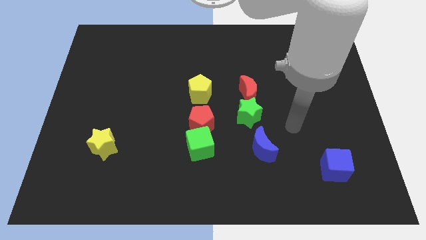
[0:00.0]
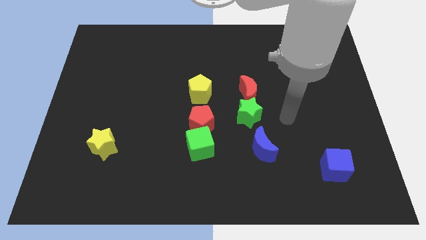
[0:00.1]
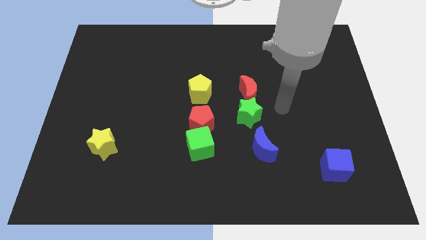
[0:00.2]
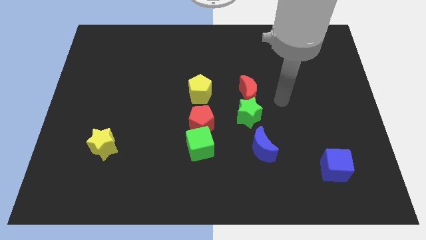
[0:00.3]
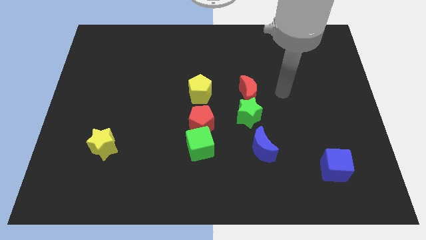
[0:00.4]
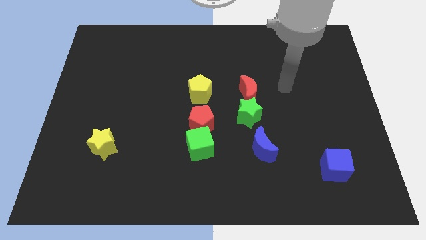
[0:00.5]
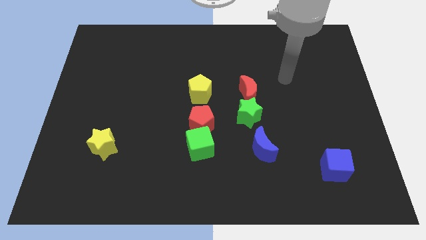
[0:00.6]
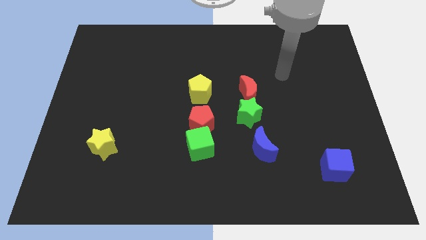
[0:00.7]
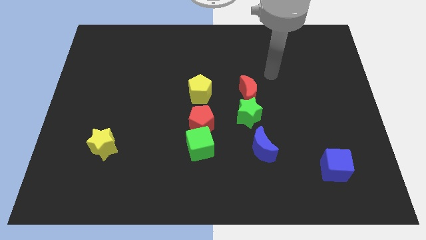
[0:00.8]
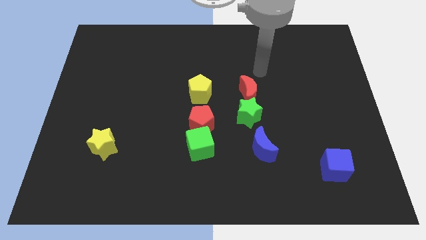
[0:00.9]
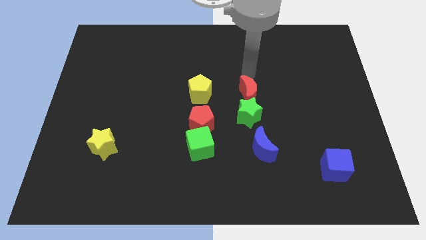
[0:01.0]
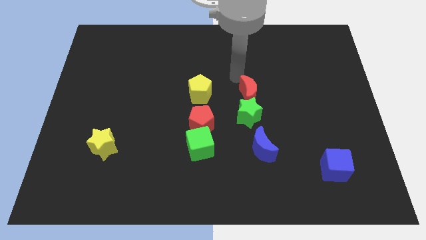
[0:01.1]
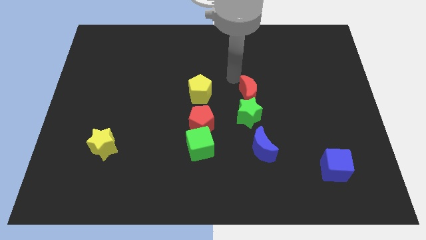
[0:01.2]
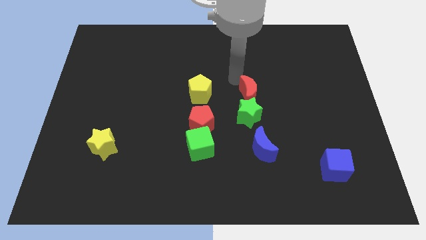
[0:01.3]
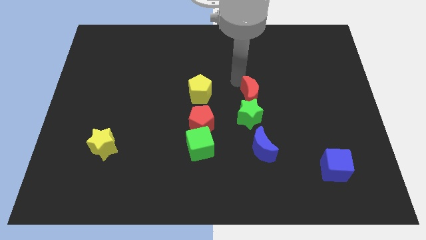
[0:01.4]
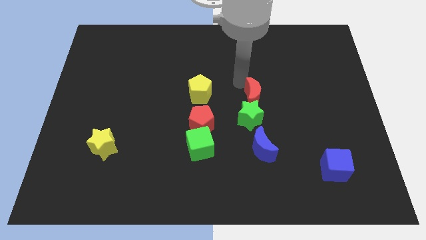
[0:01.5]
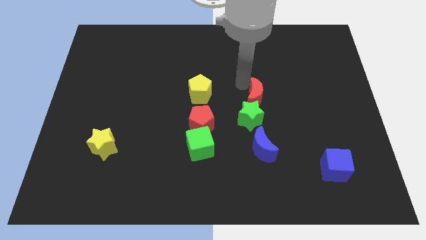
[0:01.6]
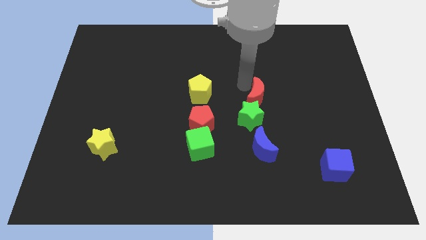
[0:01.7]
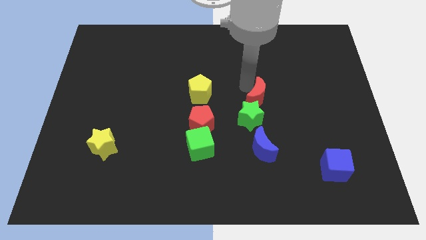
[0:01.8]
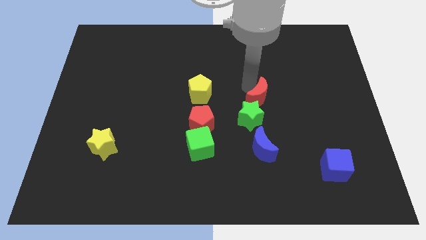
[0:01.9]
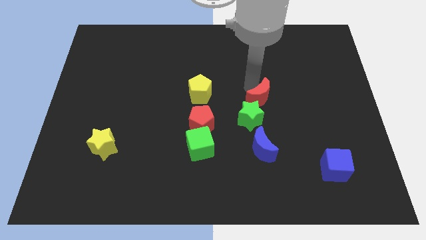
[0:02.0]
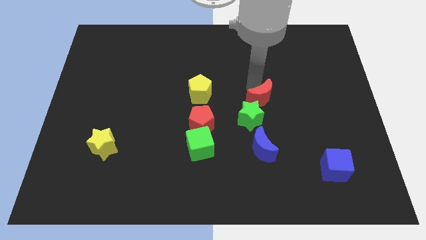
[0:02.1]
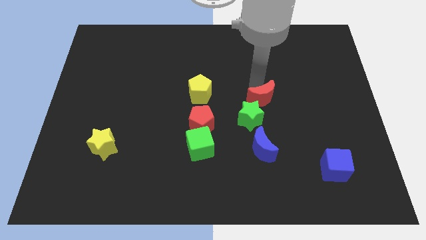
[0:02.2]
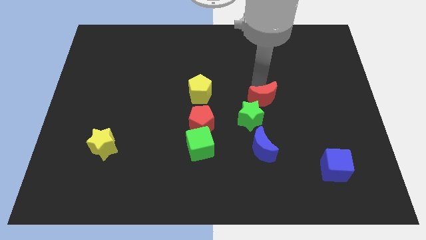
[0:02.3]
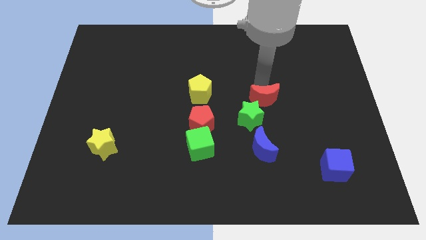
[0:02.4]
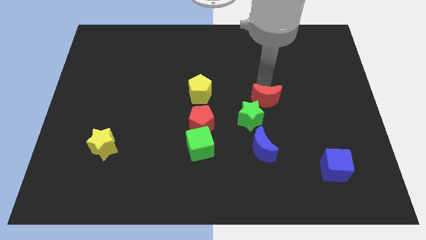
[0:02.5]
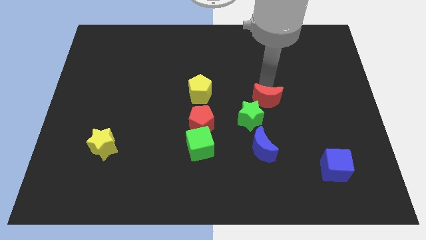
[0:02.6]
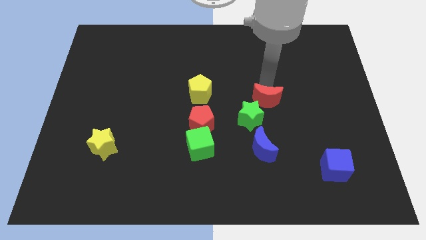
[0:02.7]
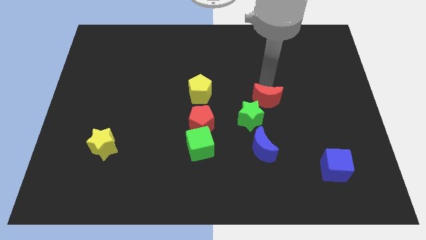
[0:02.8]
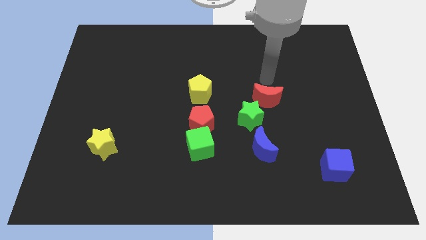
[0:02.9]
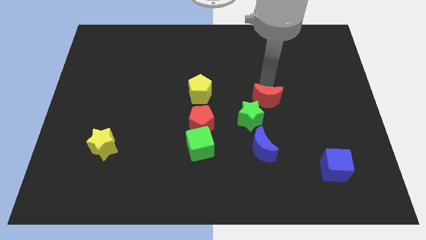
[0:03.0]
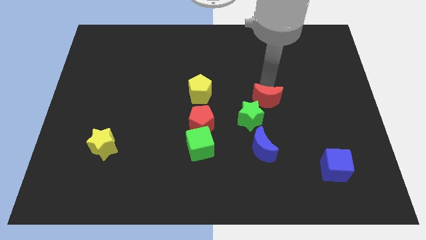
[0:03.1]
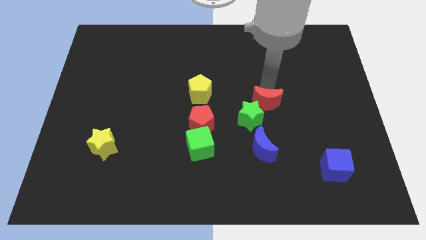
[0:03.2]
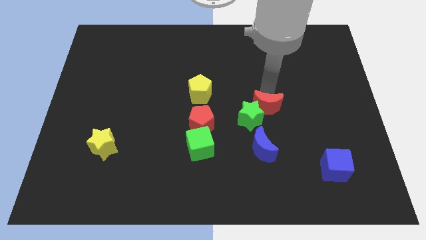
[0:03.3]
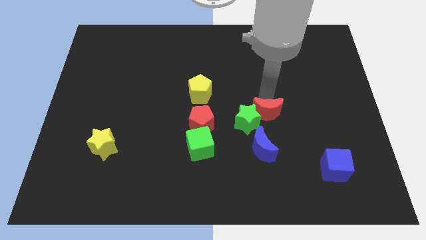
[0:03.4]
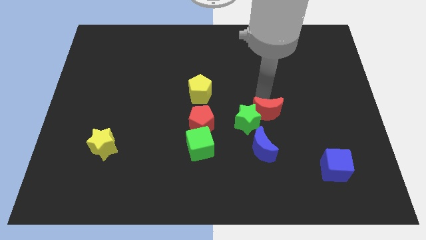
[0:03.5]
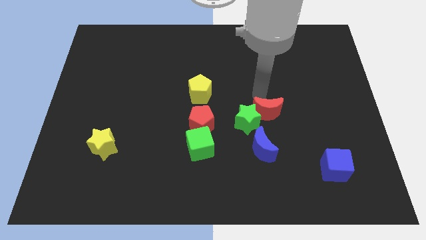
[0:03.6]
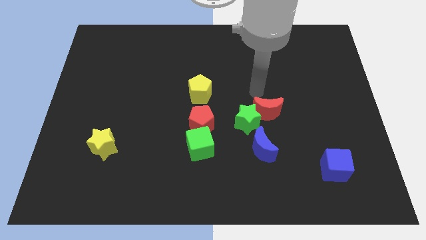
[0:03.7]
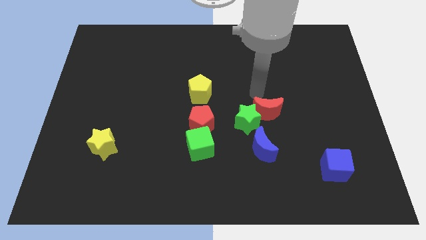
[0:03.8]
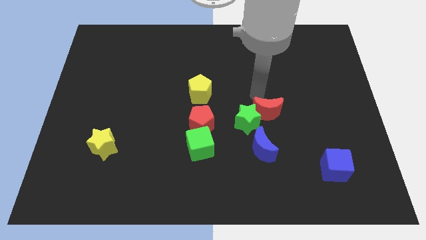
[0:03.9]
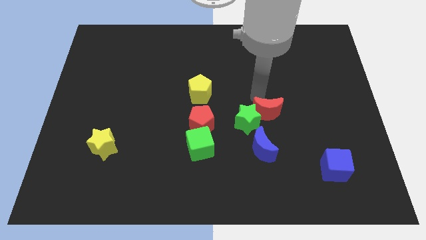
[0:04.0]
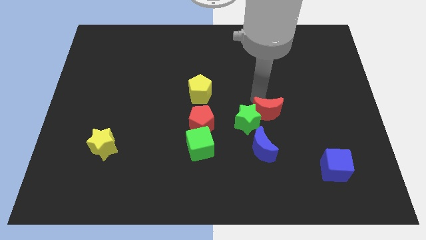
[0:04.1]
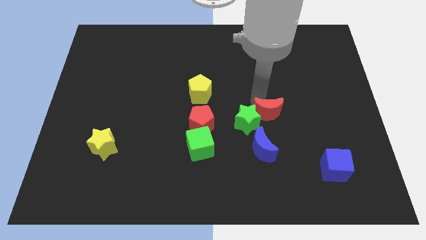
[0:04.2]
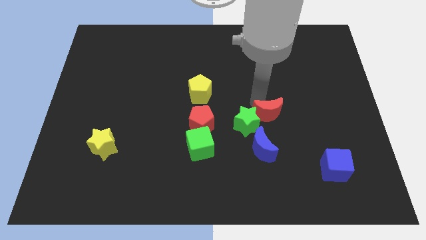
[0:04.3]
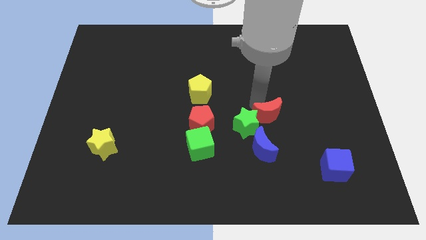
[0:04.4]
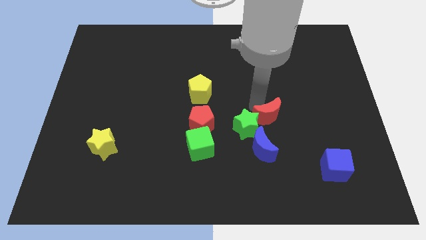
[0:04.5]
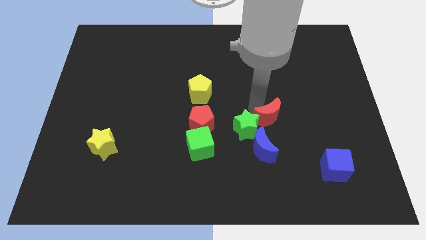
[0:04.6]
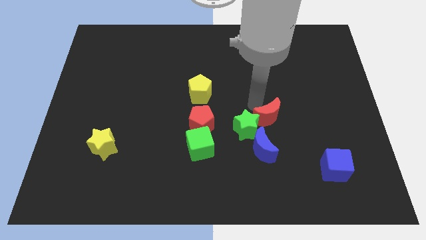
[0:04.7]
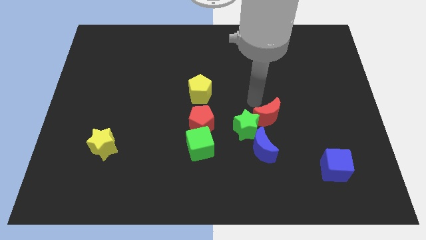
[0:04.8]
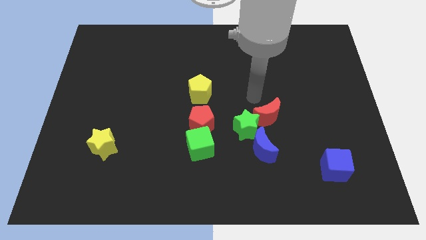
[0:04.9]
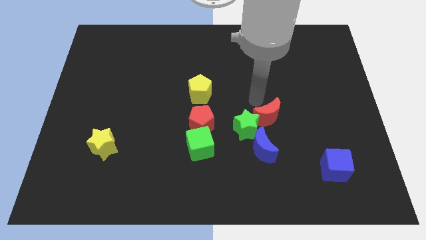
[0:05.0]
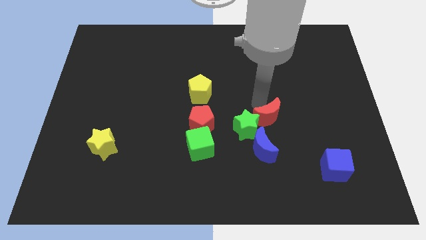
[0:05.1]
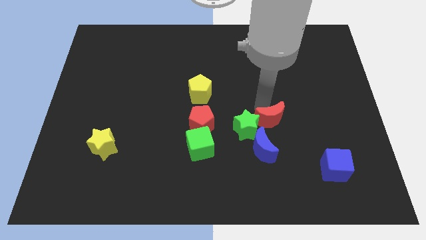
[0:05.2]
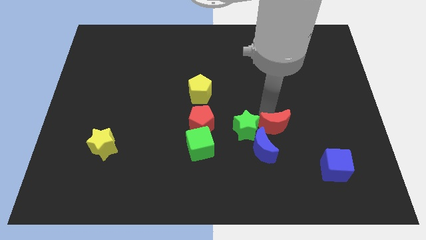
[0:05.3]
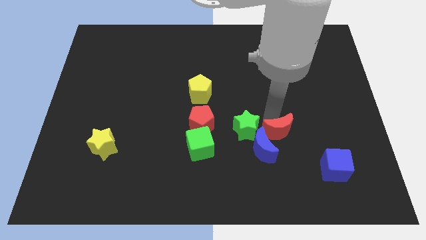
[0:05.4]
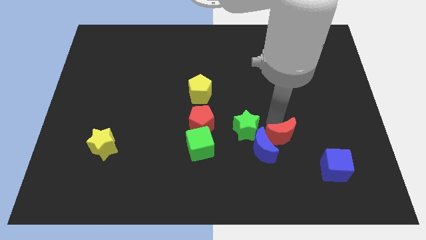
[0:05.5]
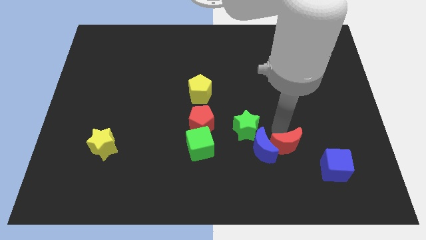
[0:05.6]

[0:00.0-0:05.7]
push the red moon to the bottom right of the blue moon

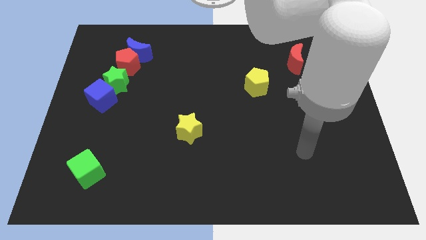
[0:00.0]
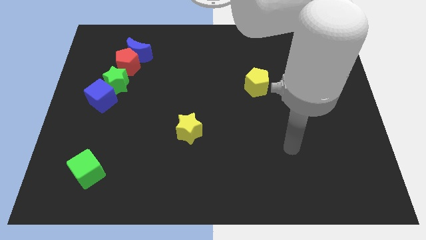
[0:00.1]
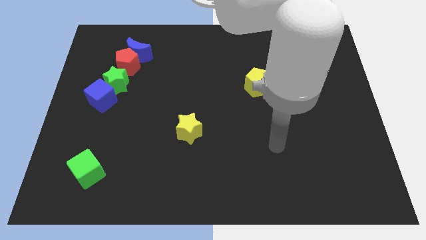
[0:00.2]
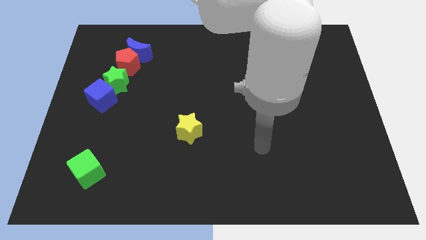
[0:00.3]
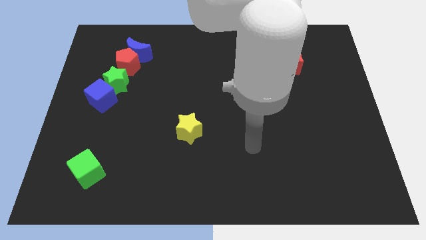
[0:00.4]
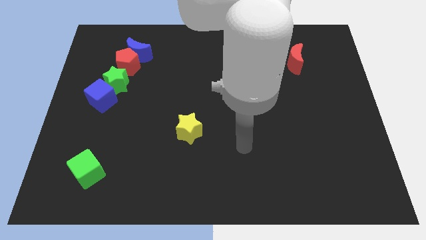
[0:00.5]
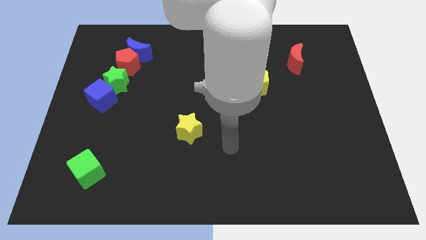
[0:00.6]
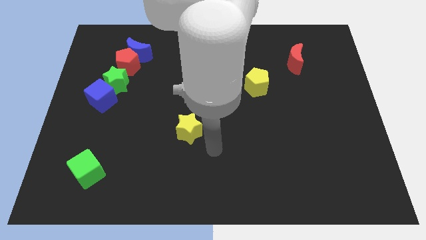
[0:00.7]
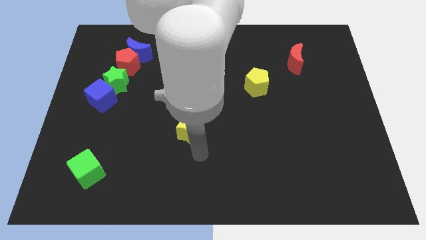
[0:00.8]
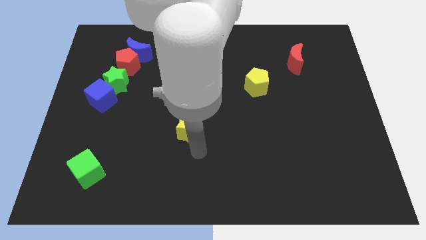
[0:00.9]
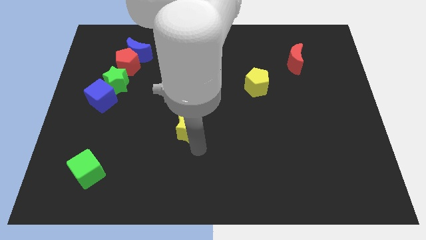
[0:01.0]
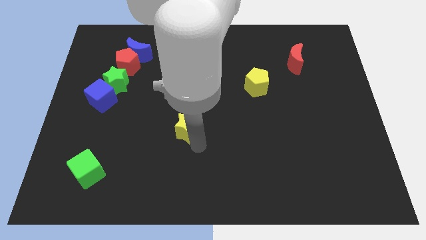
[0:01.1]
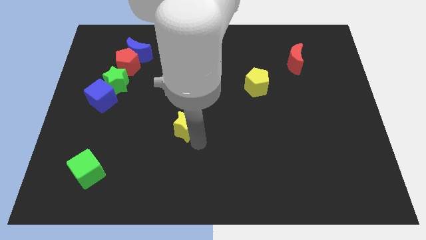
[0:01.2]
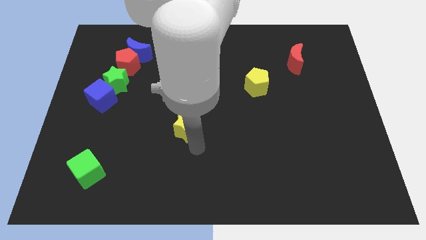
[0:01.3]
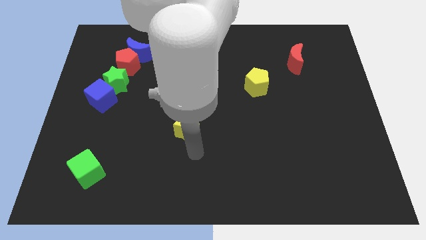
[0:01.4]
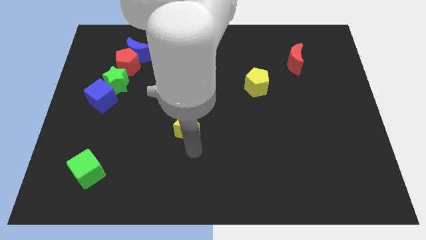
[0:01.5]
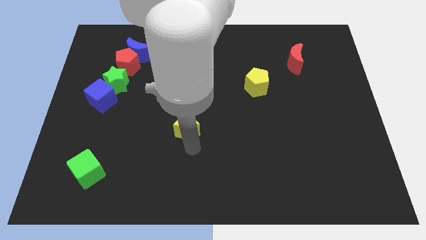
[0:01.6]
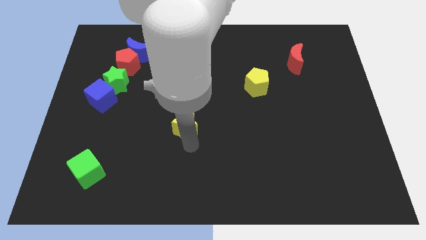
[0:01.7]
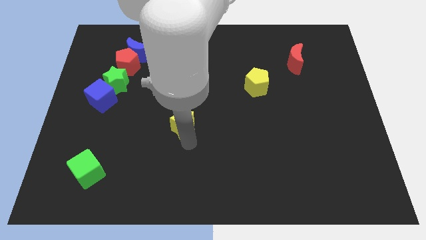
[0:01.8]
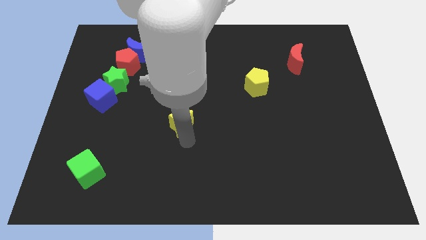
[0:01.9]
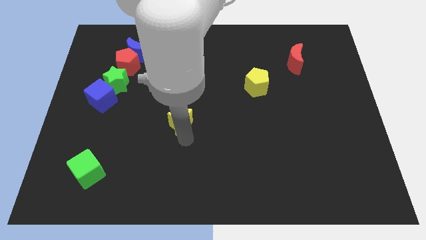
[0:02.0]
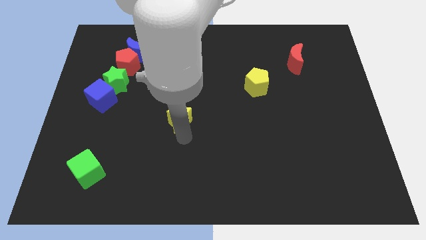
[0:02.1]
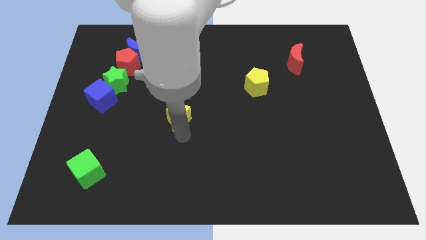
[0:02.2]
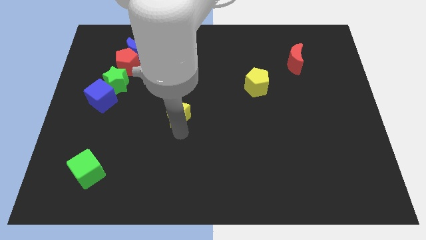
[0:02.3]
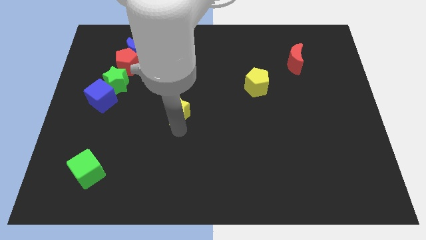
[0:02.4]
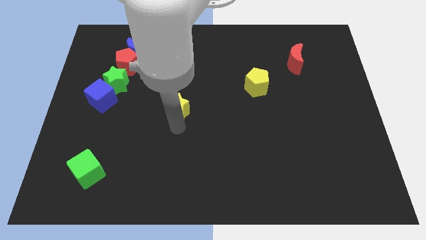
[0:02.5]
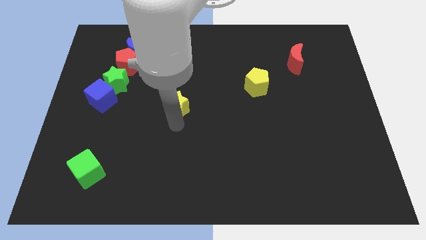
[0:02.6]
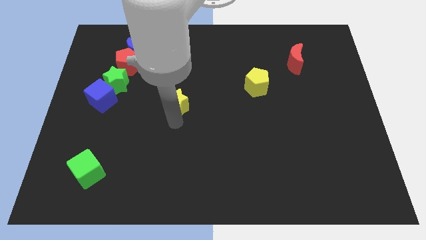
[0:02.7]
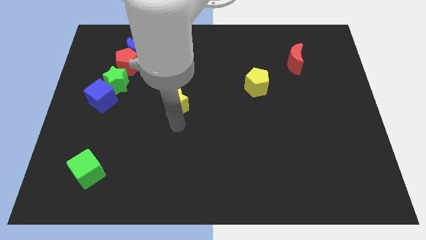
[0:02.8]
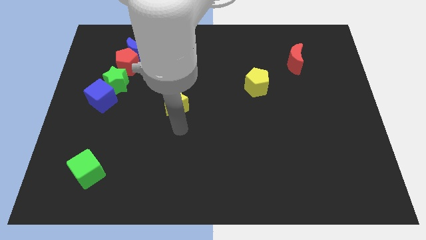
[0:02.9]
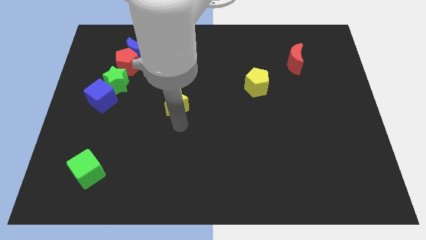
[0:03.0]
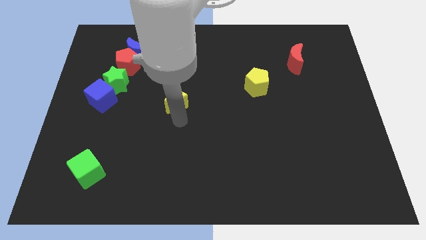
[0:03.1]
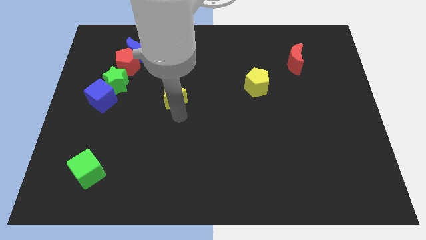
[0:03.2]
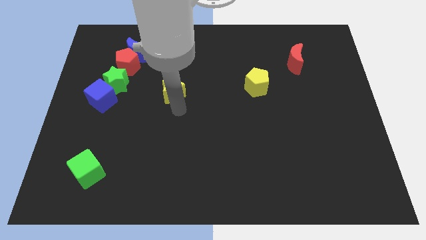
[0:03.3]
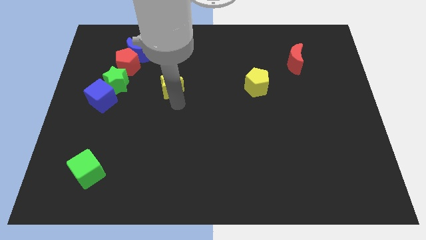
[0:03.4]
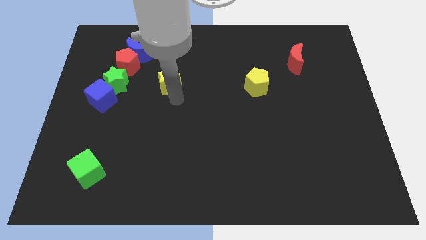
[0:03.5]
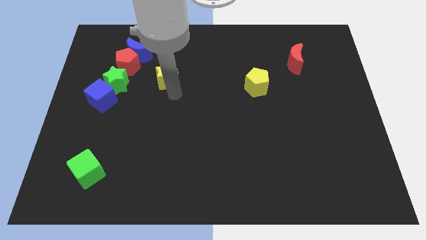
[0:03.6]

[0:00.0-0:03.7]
slide the yellow star to the right side of the red pentagon
